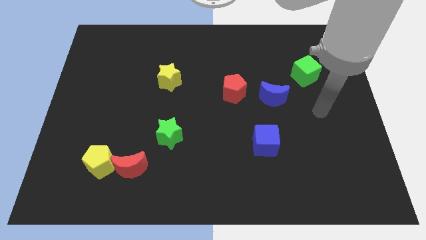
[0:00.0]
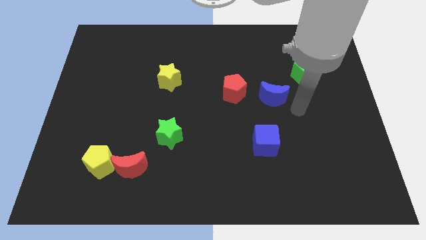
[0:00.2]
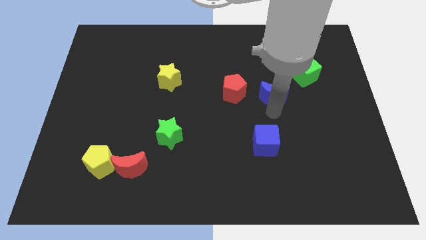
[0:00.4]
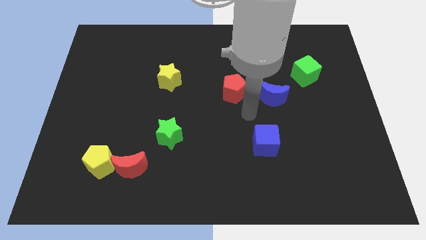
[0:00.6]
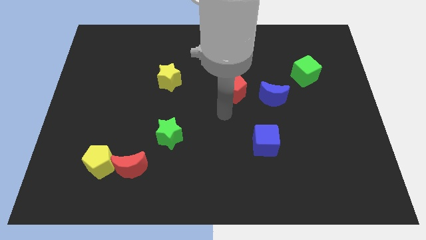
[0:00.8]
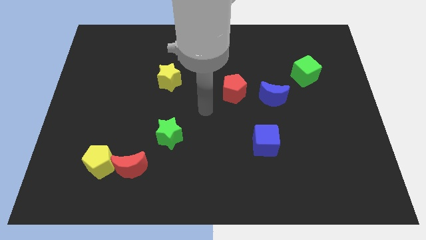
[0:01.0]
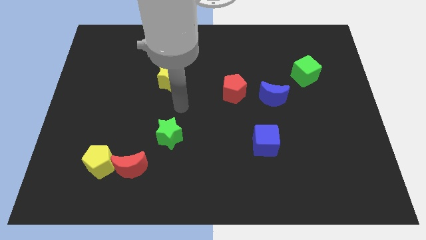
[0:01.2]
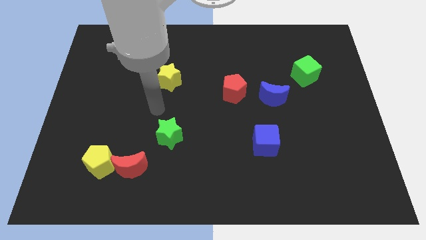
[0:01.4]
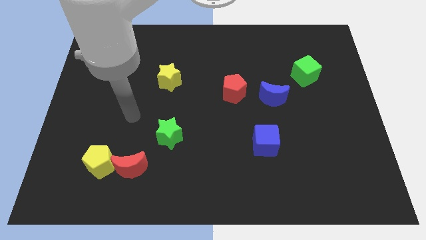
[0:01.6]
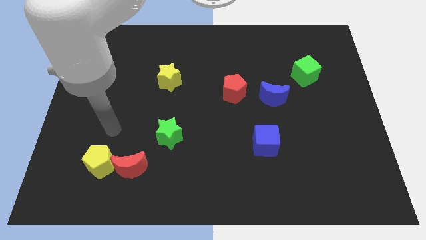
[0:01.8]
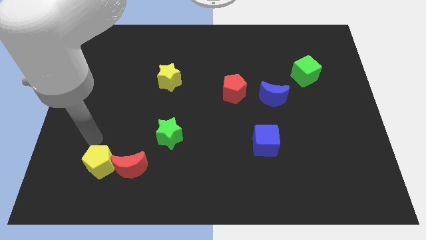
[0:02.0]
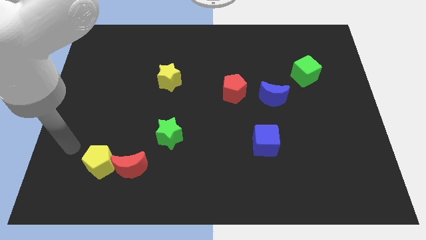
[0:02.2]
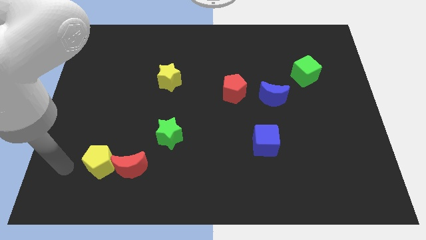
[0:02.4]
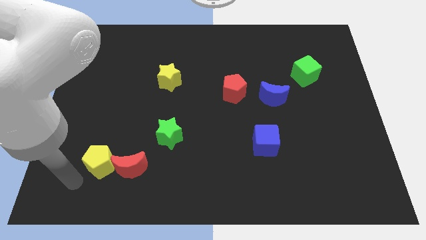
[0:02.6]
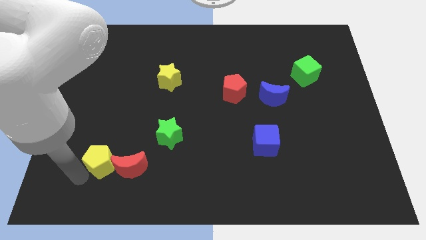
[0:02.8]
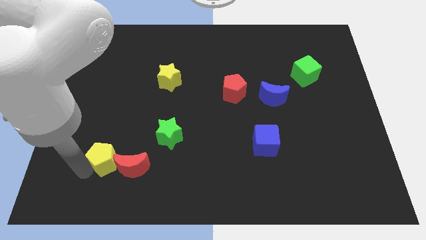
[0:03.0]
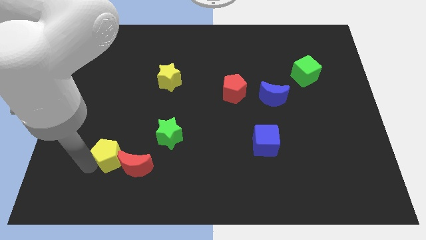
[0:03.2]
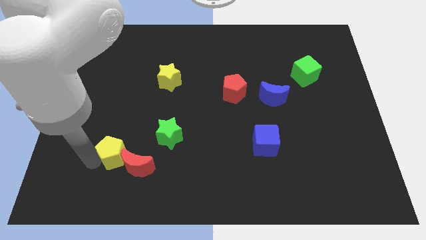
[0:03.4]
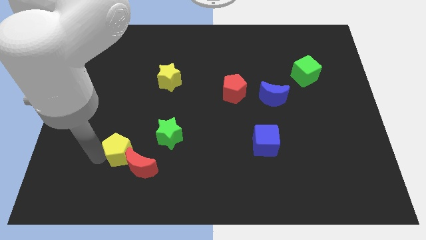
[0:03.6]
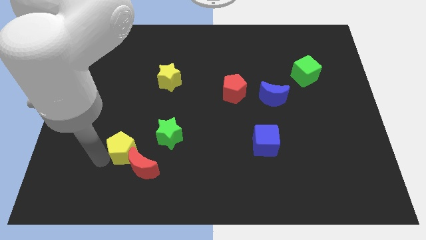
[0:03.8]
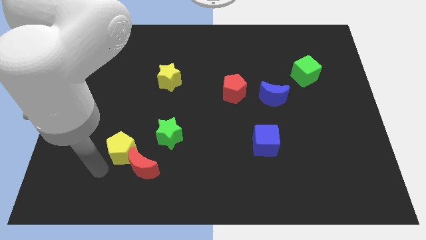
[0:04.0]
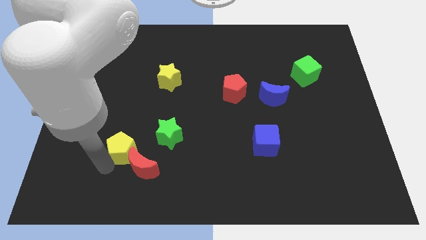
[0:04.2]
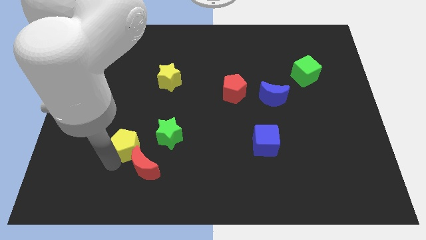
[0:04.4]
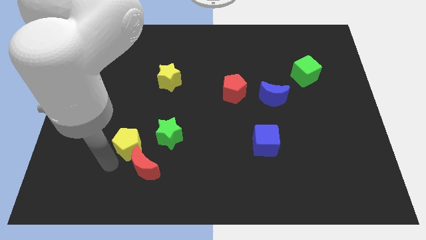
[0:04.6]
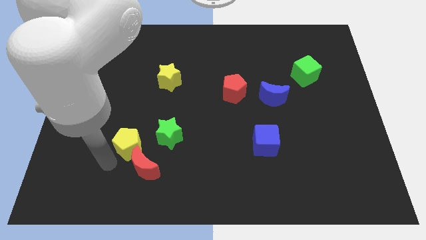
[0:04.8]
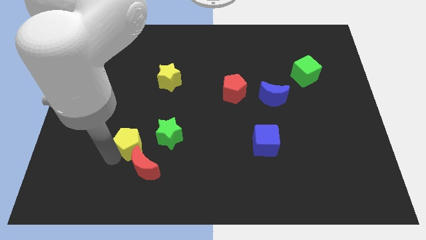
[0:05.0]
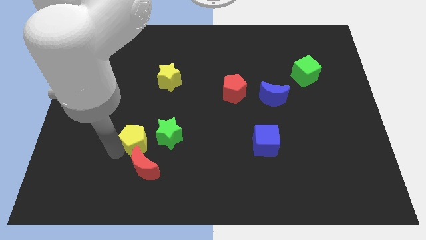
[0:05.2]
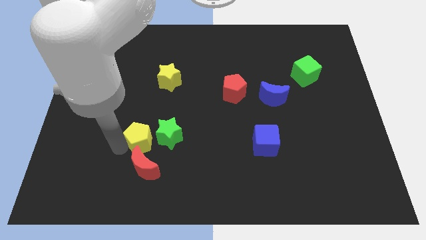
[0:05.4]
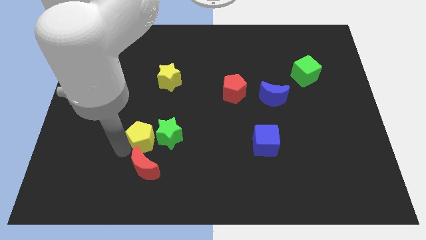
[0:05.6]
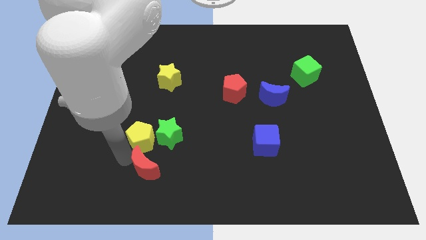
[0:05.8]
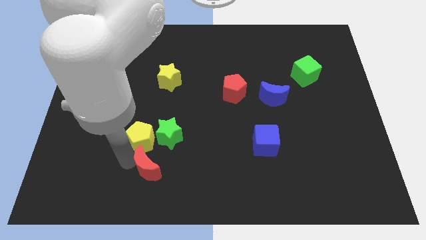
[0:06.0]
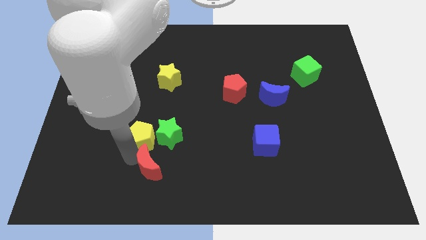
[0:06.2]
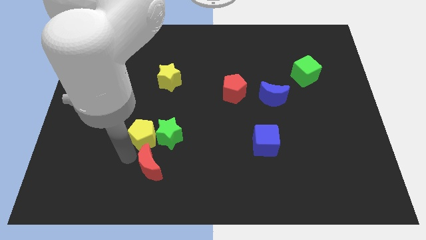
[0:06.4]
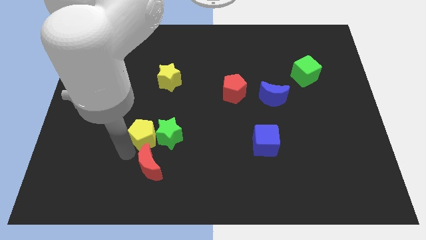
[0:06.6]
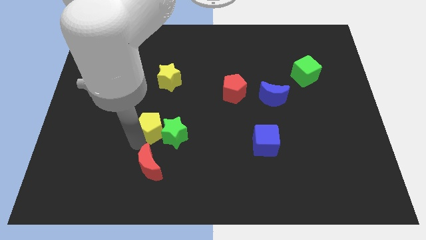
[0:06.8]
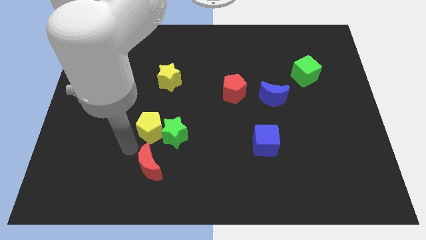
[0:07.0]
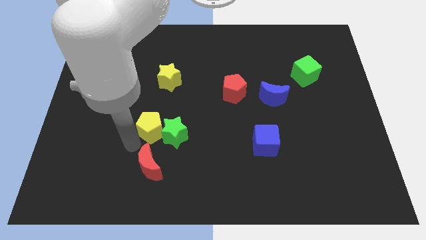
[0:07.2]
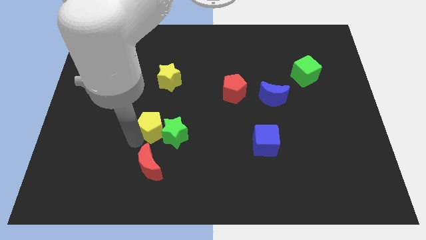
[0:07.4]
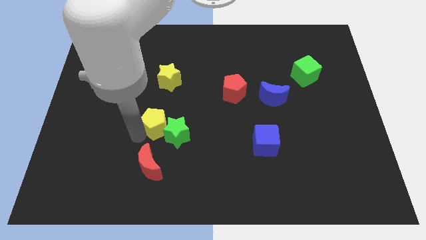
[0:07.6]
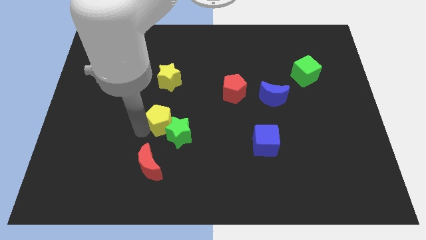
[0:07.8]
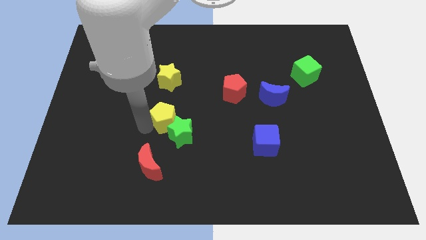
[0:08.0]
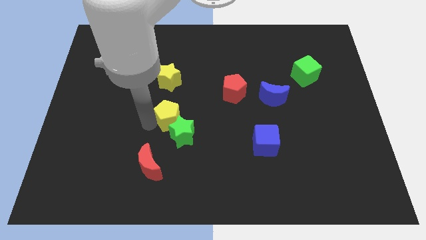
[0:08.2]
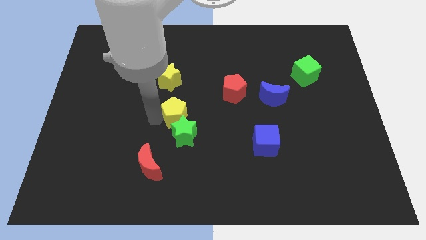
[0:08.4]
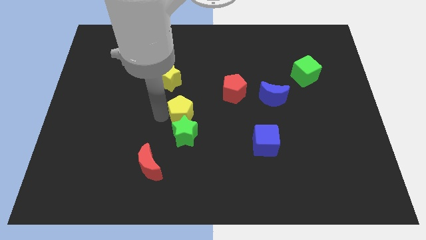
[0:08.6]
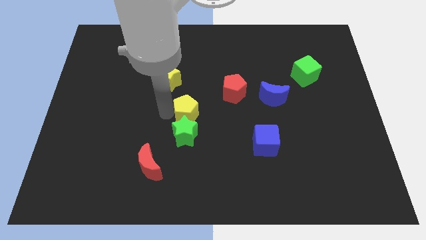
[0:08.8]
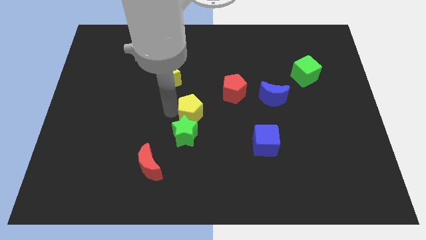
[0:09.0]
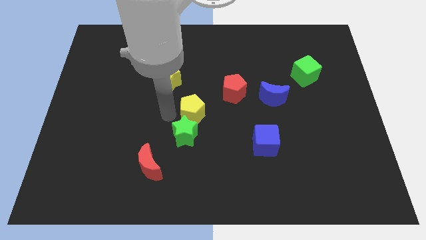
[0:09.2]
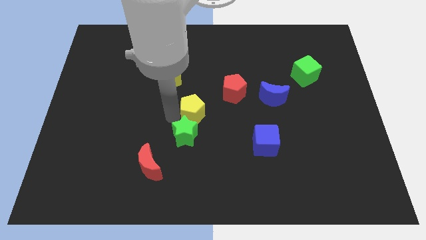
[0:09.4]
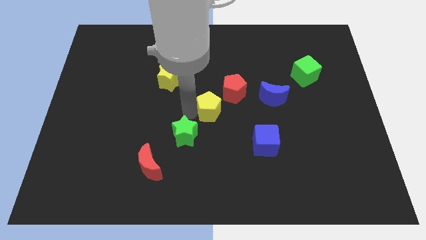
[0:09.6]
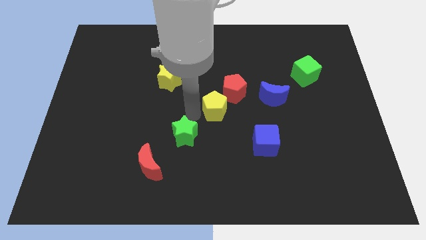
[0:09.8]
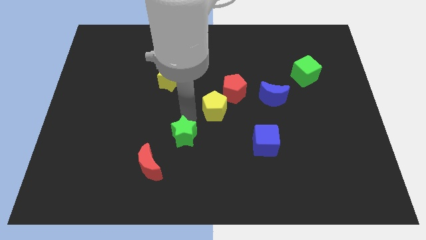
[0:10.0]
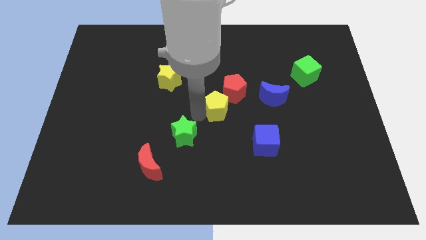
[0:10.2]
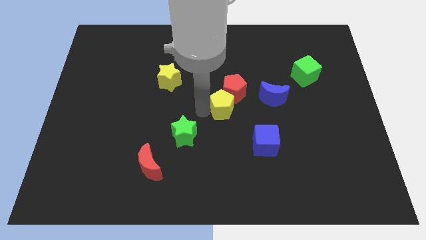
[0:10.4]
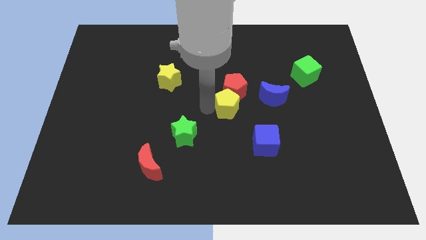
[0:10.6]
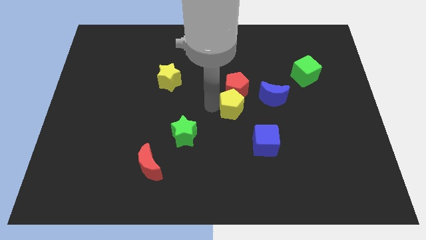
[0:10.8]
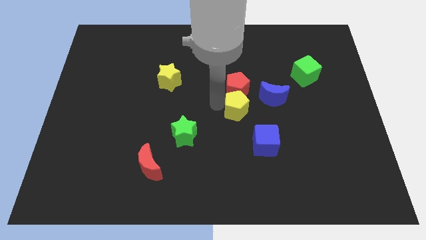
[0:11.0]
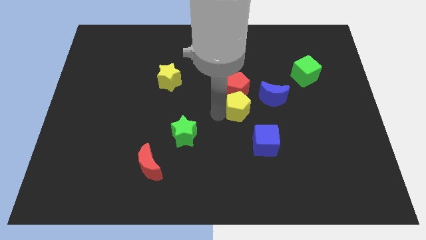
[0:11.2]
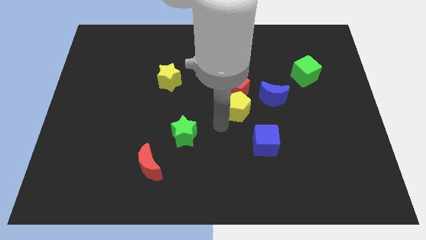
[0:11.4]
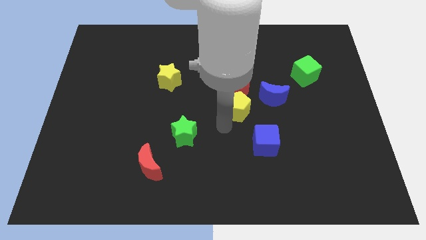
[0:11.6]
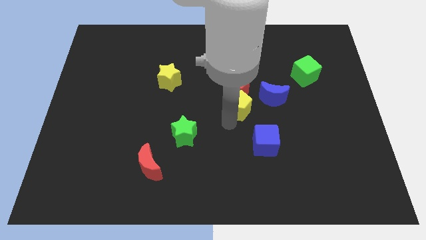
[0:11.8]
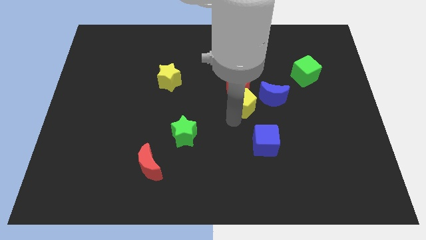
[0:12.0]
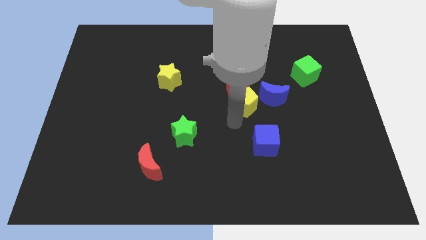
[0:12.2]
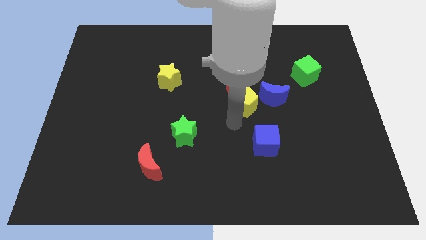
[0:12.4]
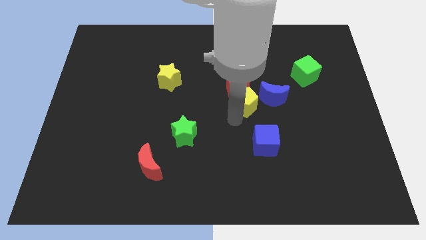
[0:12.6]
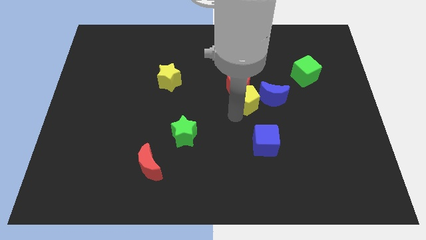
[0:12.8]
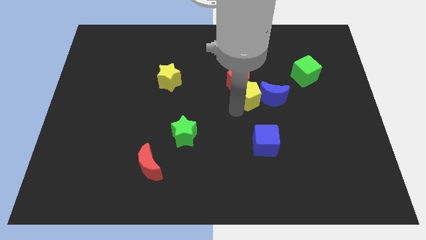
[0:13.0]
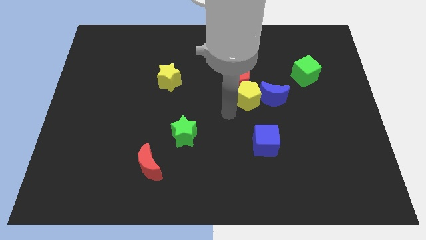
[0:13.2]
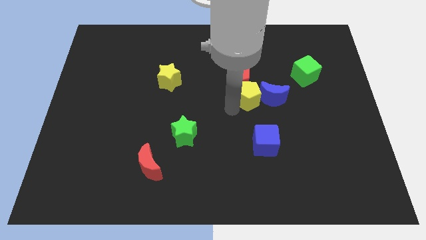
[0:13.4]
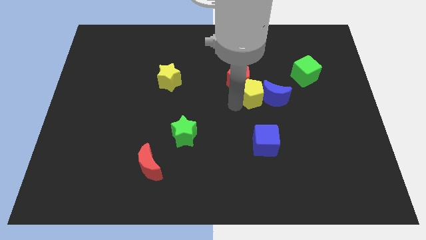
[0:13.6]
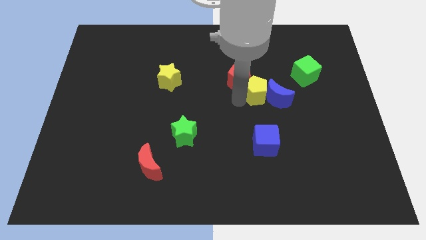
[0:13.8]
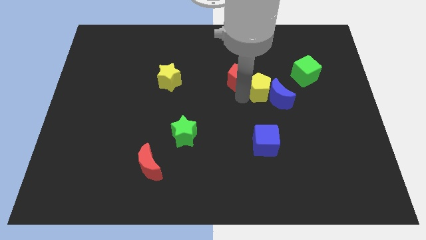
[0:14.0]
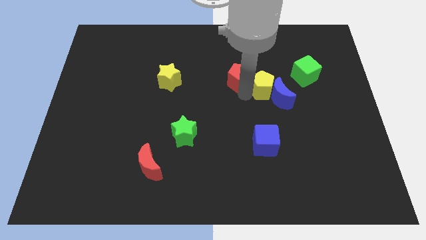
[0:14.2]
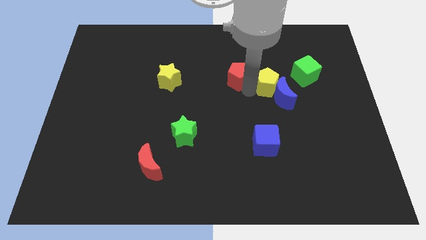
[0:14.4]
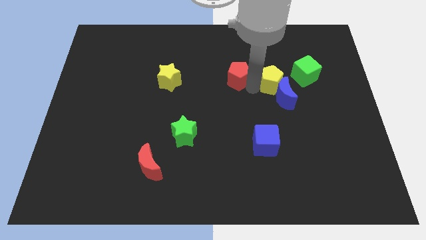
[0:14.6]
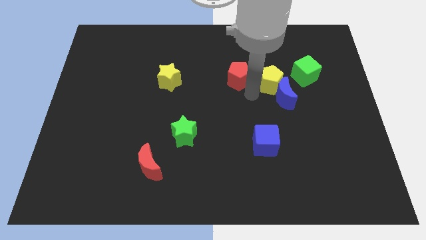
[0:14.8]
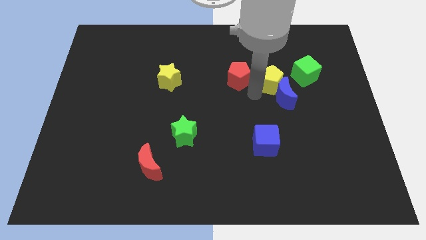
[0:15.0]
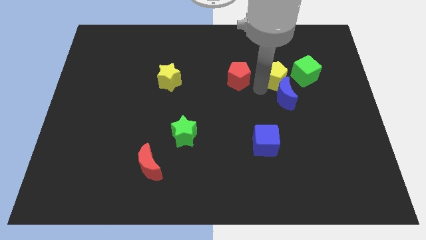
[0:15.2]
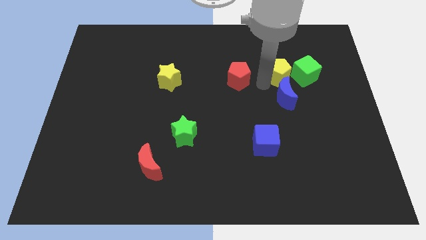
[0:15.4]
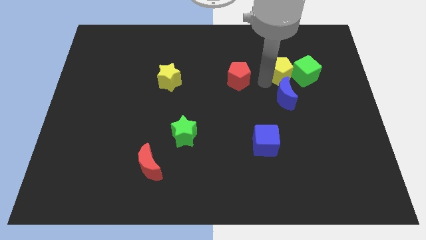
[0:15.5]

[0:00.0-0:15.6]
push the yellow pentagon next to the green cube
